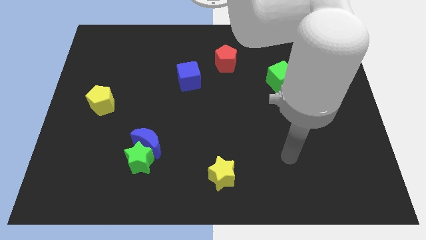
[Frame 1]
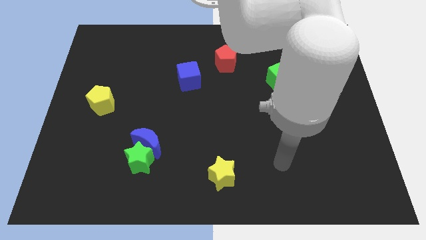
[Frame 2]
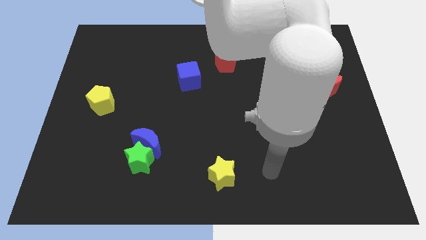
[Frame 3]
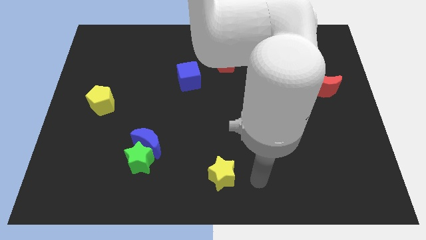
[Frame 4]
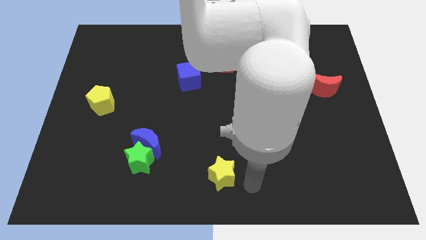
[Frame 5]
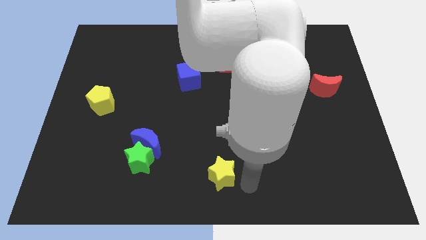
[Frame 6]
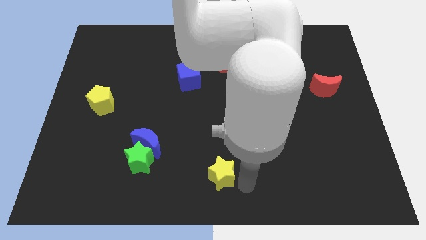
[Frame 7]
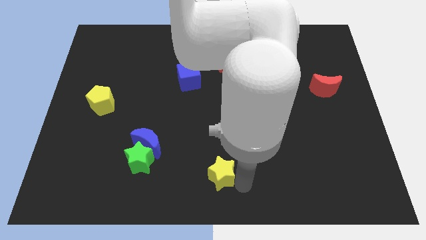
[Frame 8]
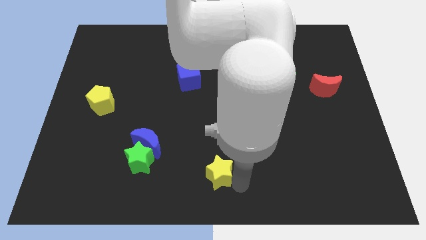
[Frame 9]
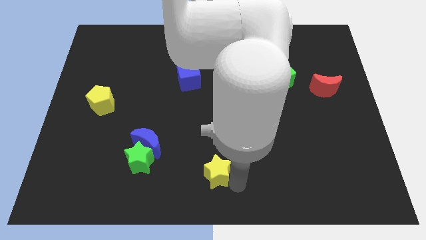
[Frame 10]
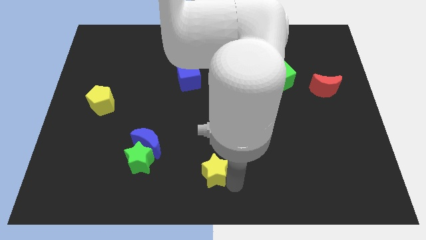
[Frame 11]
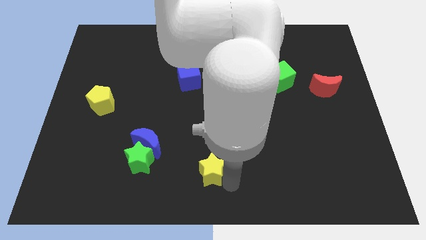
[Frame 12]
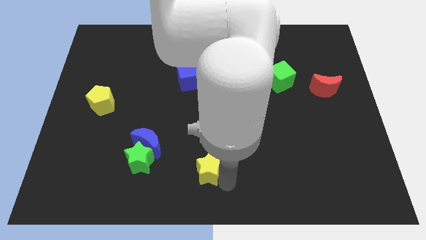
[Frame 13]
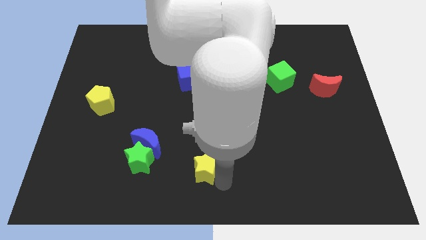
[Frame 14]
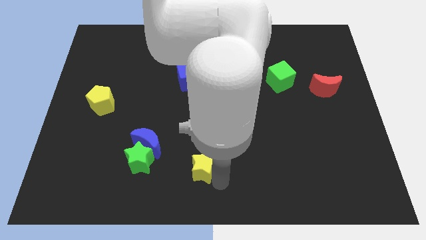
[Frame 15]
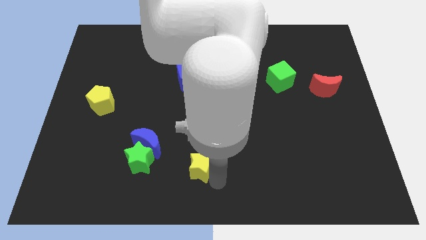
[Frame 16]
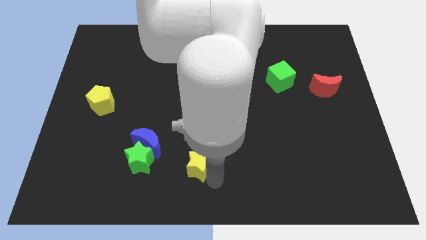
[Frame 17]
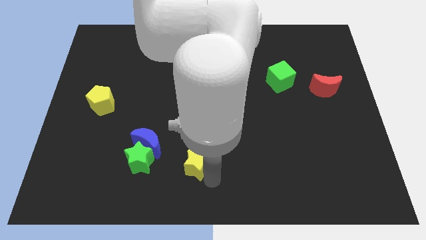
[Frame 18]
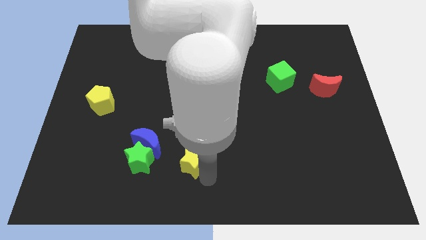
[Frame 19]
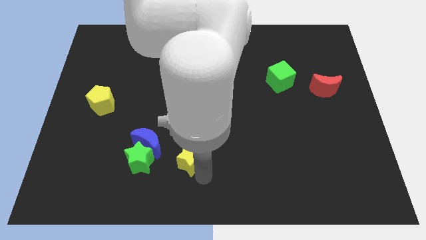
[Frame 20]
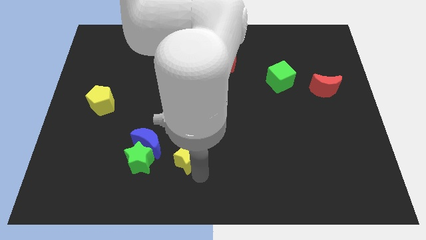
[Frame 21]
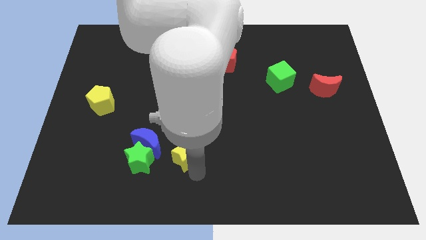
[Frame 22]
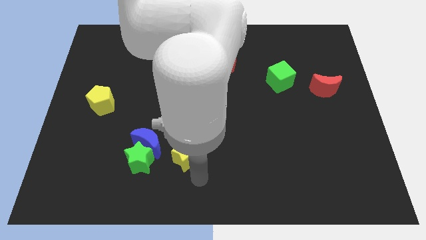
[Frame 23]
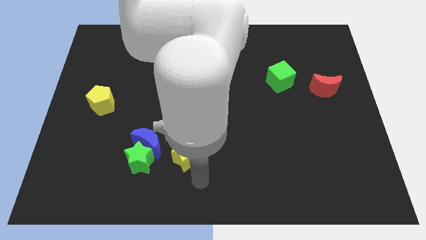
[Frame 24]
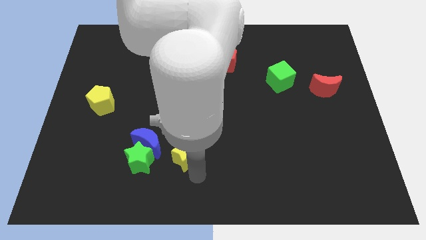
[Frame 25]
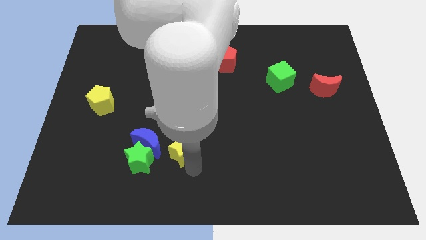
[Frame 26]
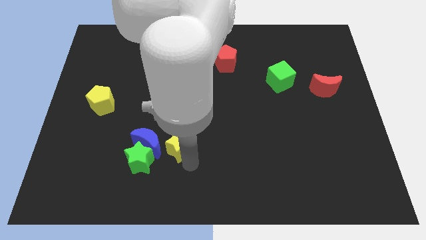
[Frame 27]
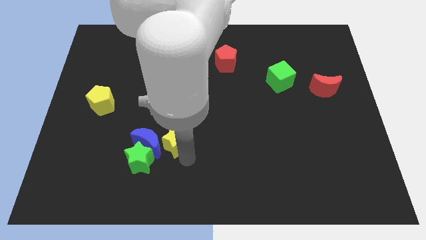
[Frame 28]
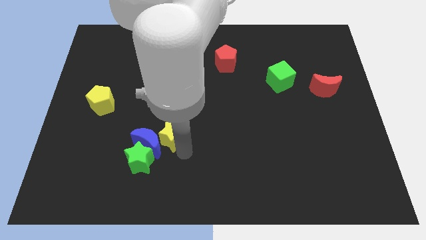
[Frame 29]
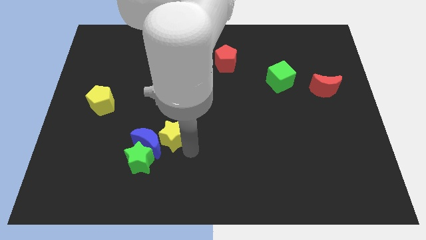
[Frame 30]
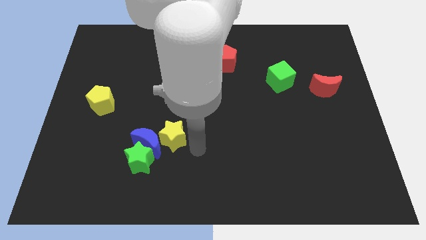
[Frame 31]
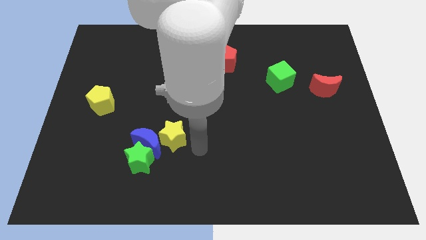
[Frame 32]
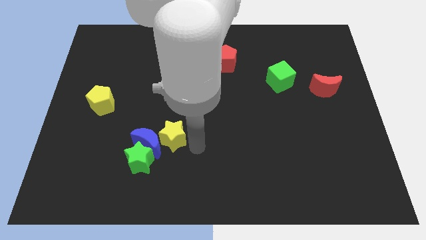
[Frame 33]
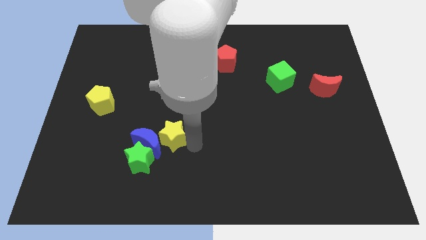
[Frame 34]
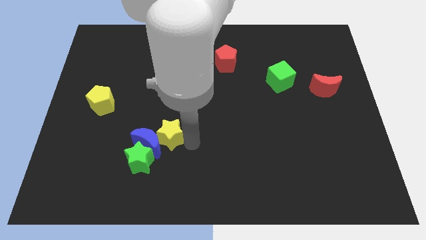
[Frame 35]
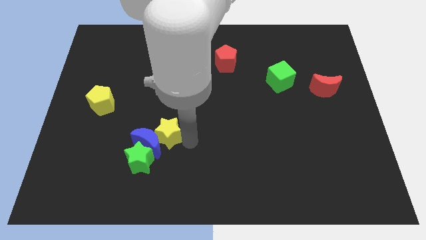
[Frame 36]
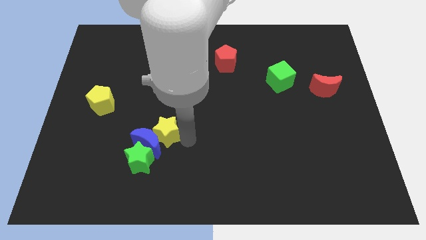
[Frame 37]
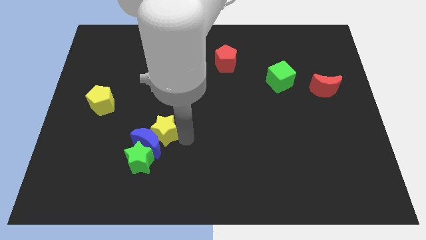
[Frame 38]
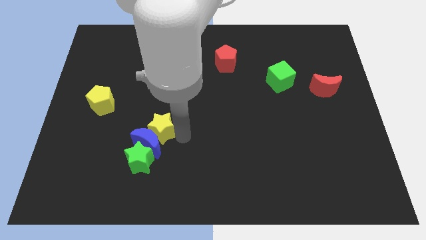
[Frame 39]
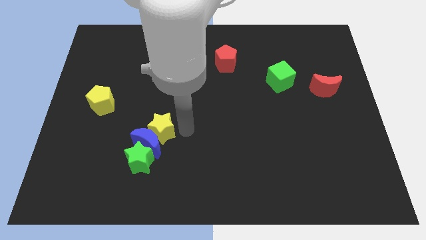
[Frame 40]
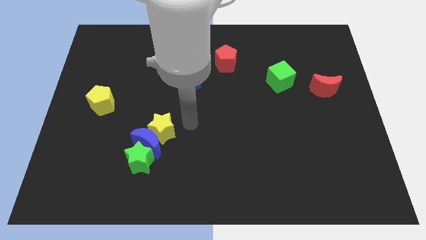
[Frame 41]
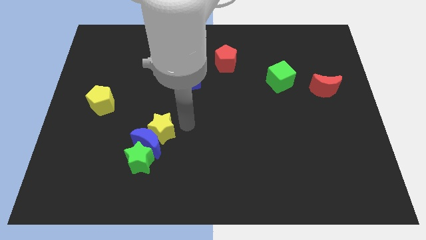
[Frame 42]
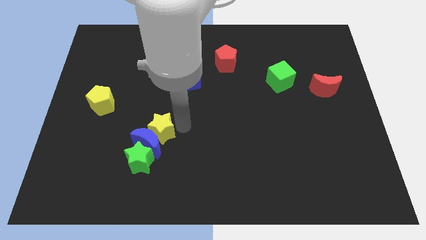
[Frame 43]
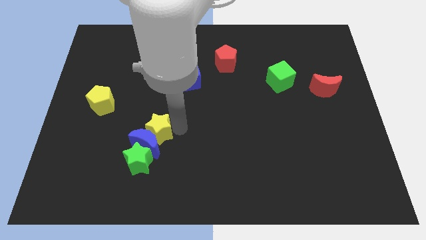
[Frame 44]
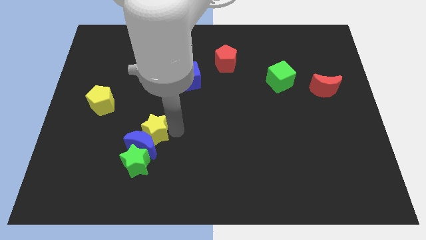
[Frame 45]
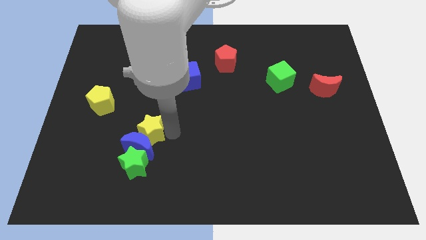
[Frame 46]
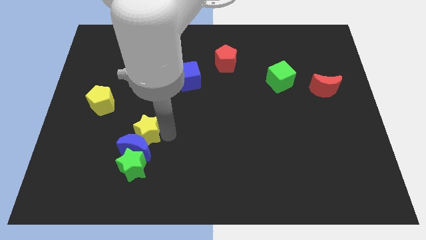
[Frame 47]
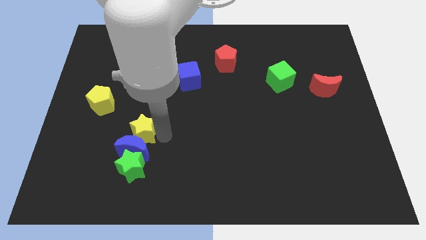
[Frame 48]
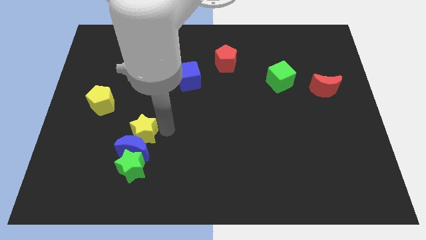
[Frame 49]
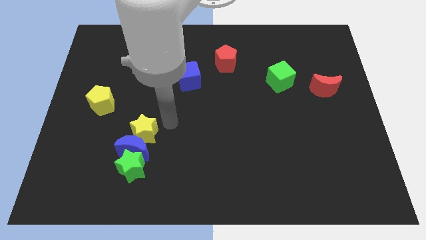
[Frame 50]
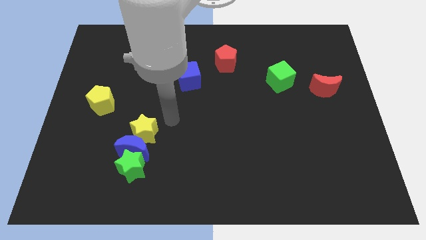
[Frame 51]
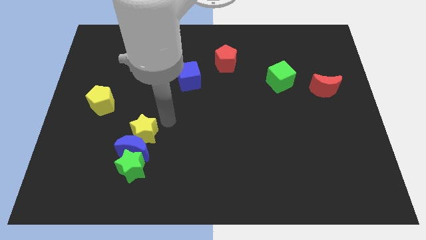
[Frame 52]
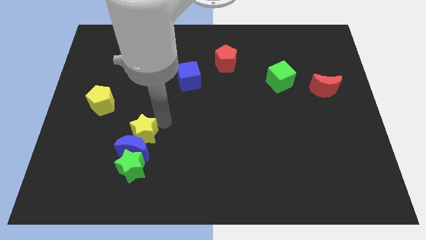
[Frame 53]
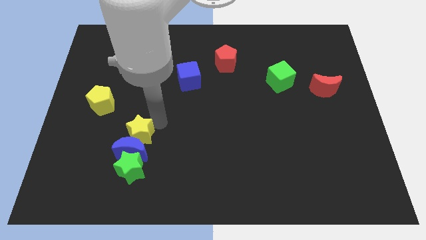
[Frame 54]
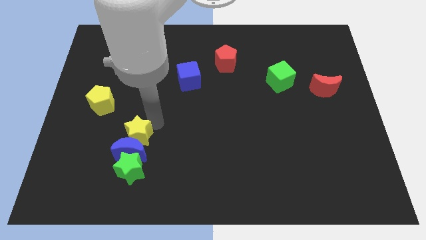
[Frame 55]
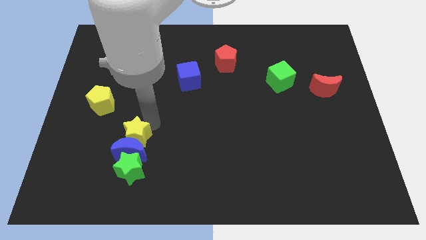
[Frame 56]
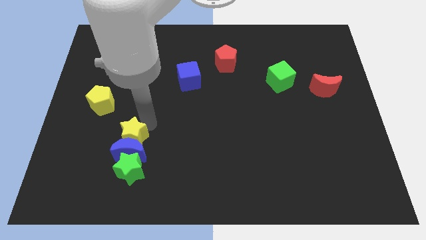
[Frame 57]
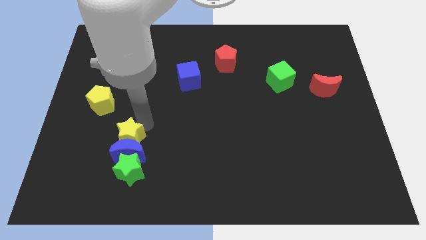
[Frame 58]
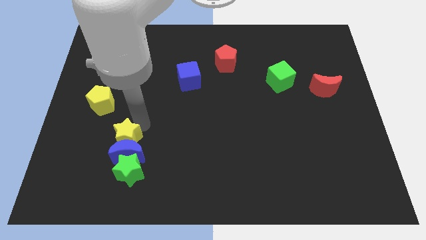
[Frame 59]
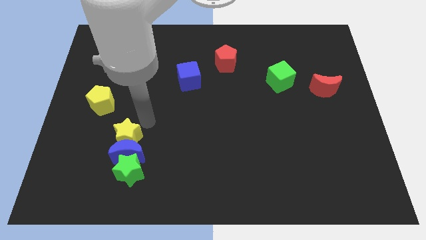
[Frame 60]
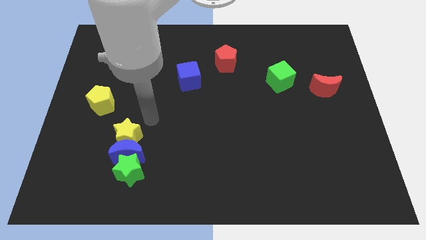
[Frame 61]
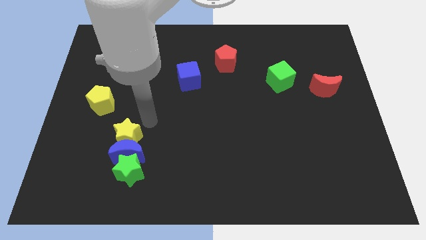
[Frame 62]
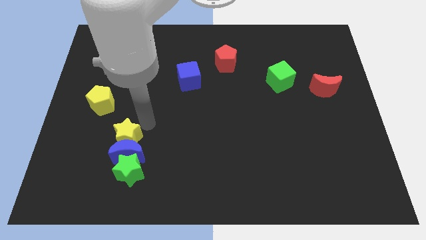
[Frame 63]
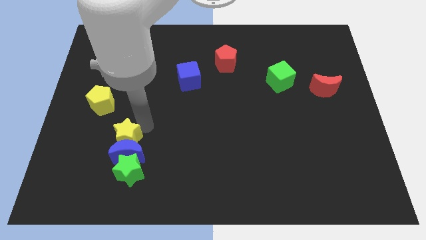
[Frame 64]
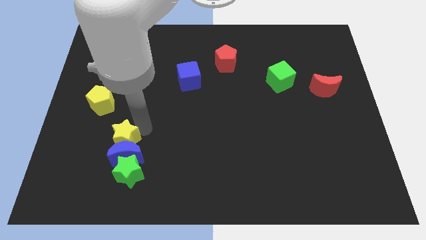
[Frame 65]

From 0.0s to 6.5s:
slide the yellow star to the top left of the green star

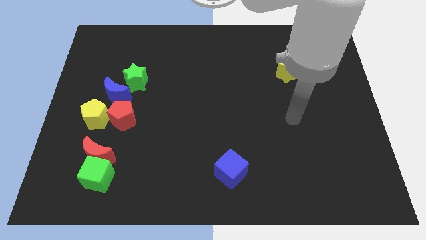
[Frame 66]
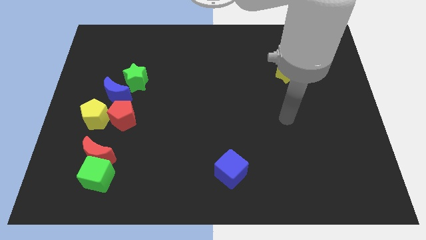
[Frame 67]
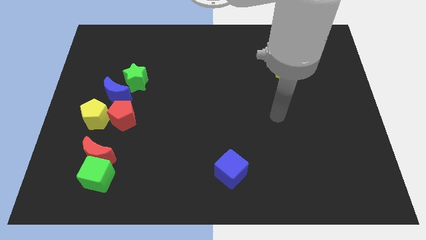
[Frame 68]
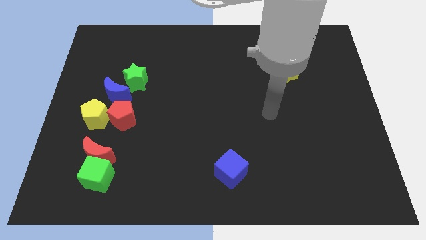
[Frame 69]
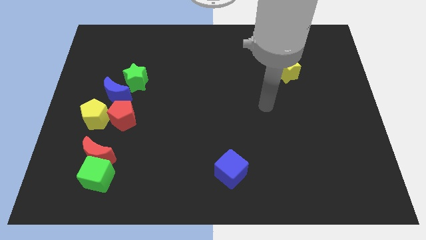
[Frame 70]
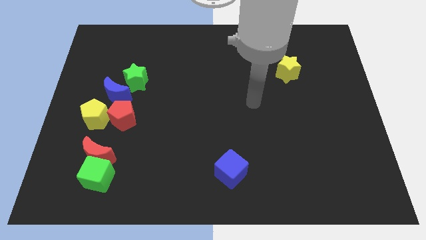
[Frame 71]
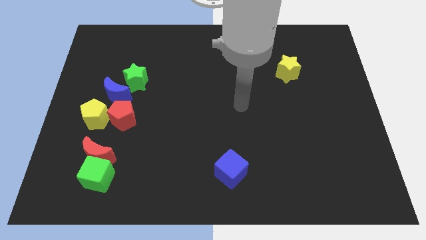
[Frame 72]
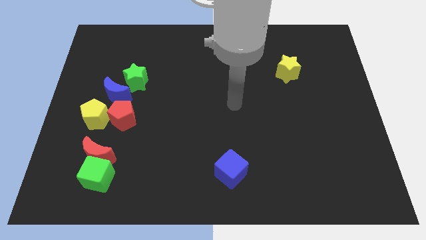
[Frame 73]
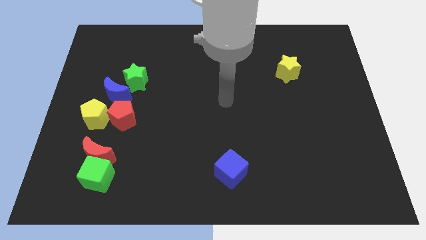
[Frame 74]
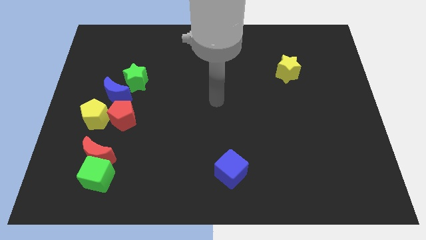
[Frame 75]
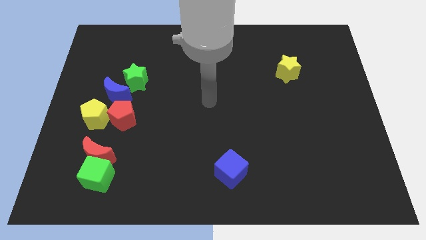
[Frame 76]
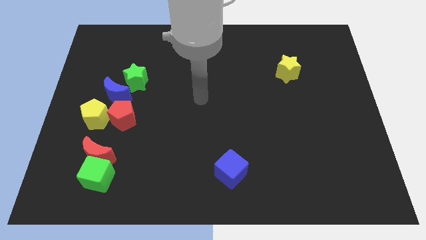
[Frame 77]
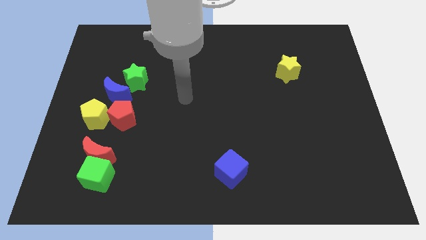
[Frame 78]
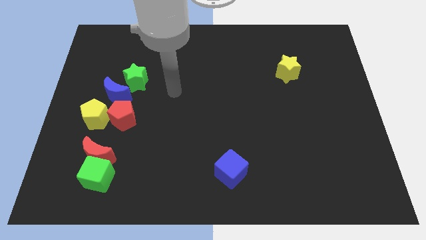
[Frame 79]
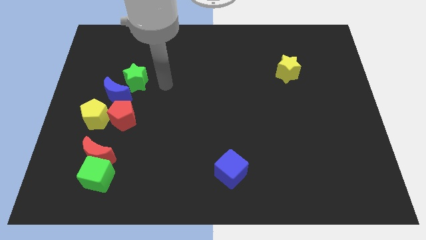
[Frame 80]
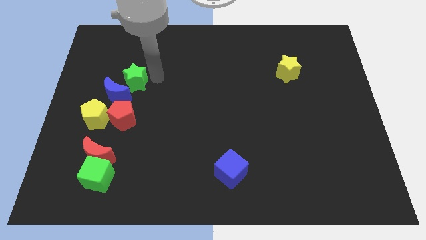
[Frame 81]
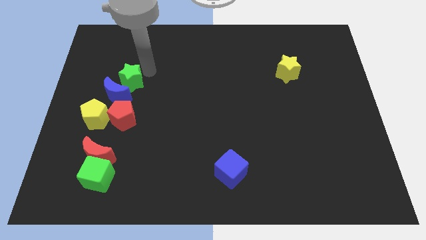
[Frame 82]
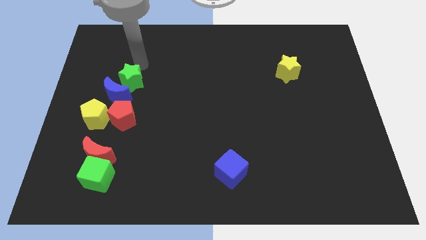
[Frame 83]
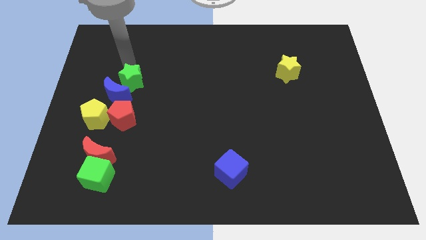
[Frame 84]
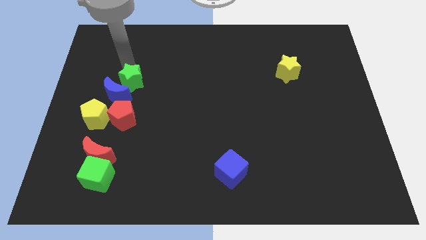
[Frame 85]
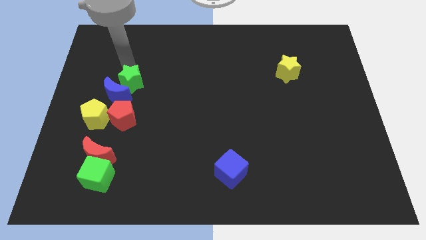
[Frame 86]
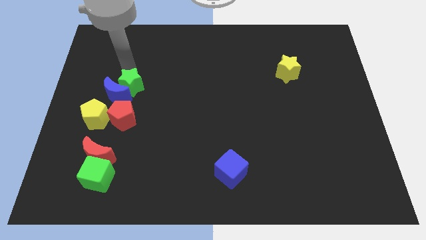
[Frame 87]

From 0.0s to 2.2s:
move the green star to the top right of the yellow pentagon
